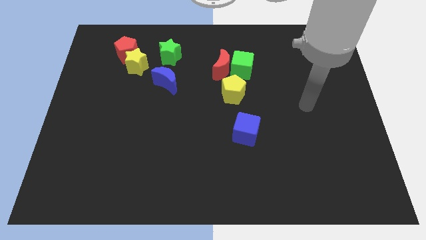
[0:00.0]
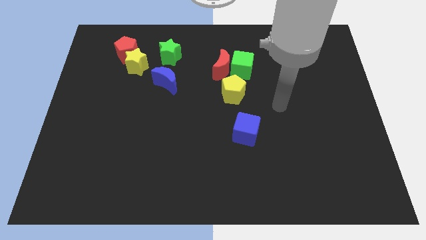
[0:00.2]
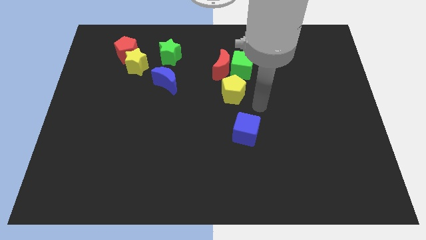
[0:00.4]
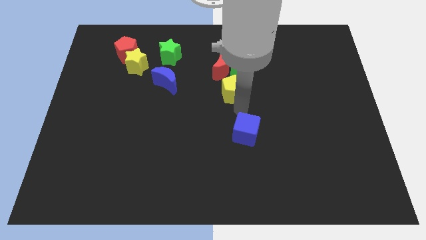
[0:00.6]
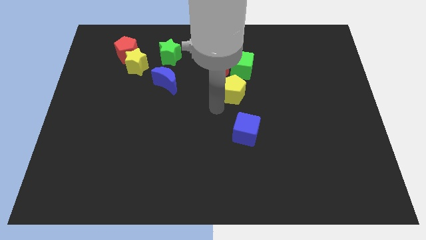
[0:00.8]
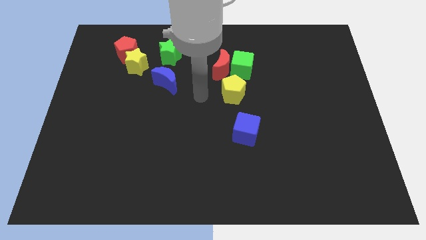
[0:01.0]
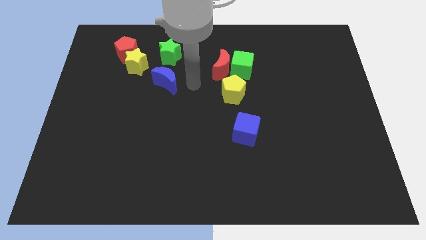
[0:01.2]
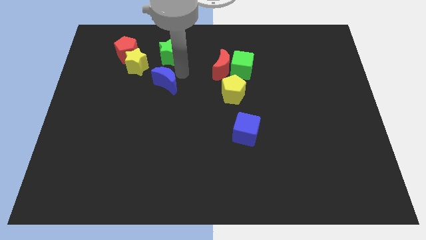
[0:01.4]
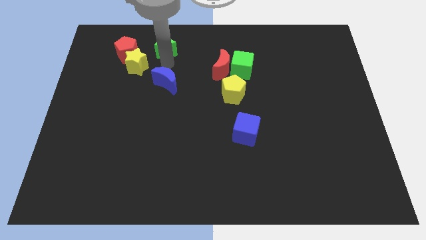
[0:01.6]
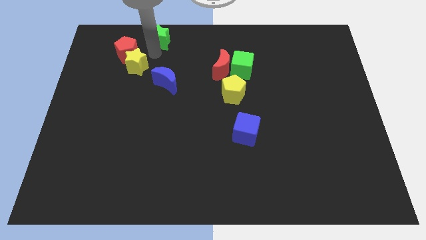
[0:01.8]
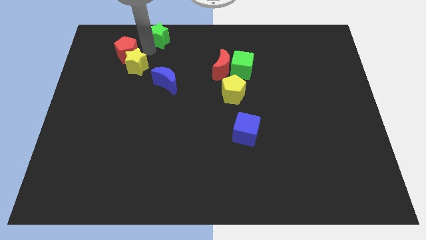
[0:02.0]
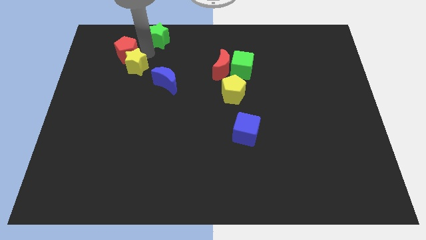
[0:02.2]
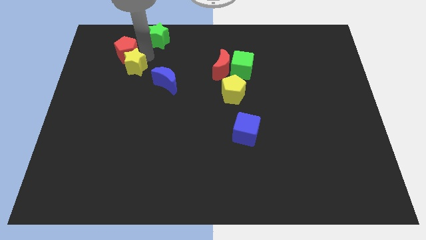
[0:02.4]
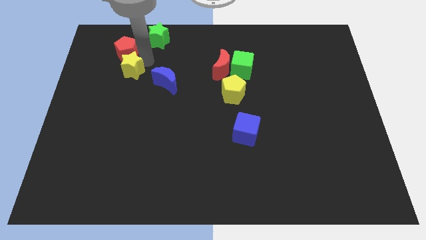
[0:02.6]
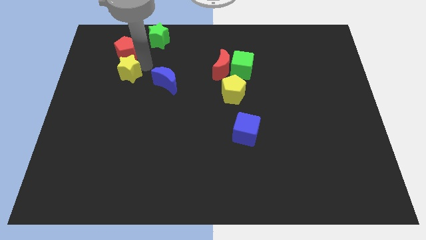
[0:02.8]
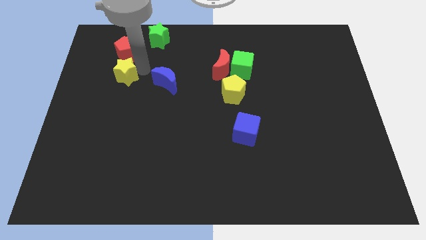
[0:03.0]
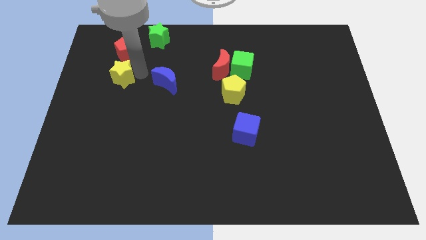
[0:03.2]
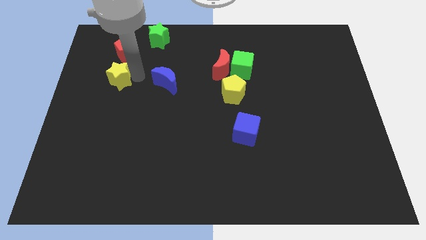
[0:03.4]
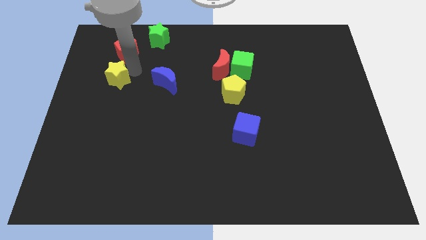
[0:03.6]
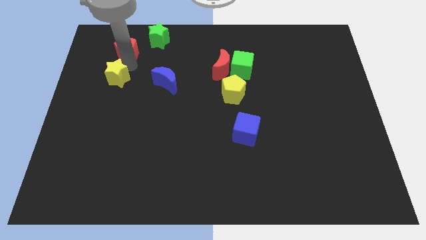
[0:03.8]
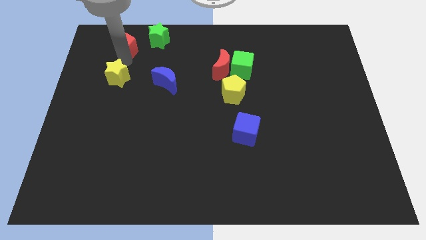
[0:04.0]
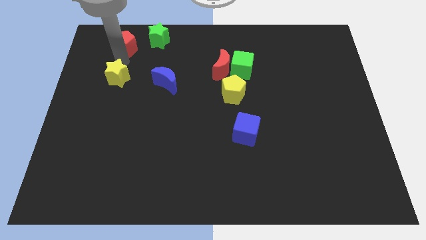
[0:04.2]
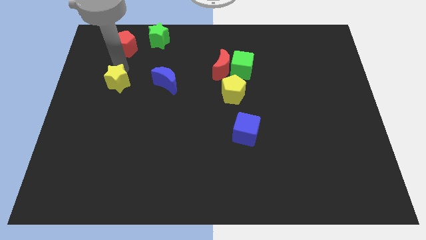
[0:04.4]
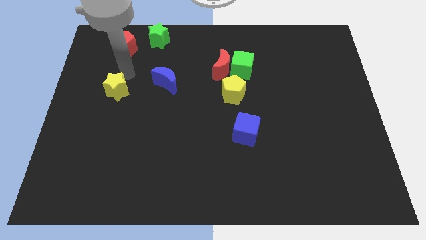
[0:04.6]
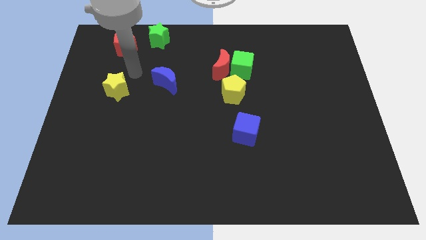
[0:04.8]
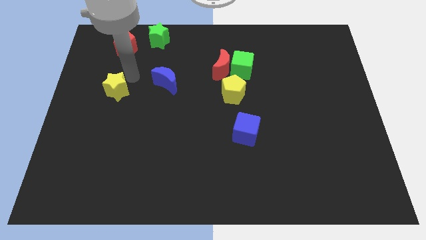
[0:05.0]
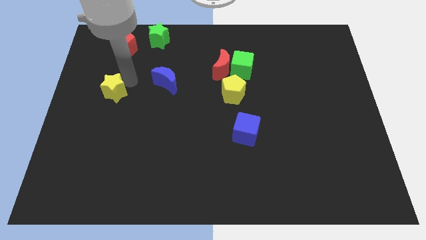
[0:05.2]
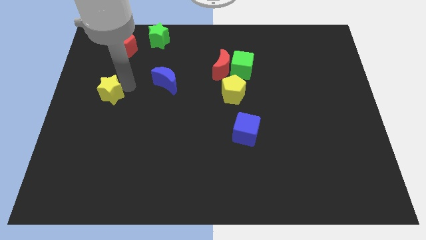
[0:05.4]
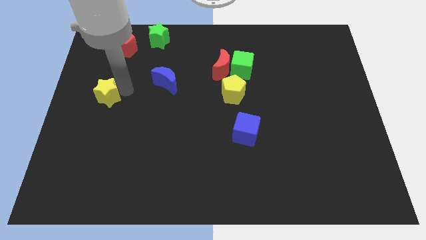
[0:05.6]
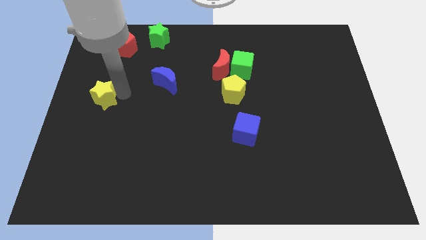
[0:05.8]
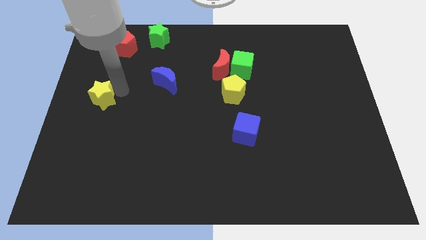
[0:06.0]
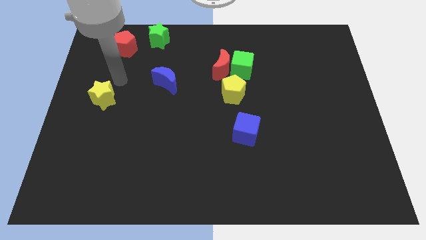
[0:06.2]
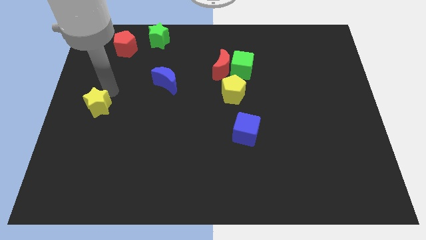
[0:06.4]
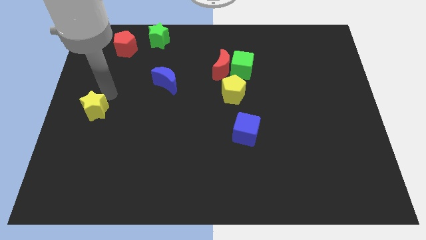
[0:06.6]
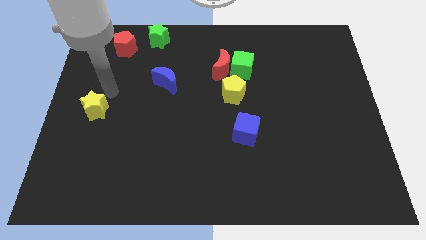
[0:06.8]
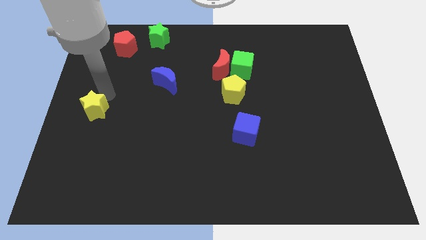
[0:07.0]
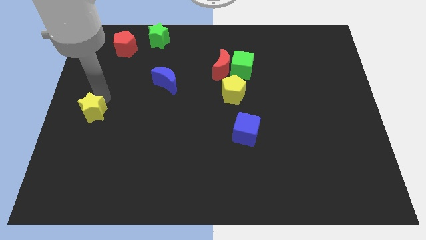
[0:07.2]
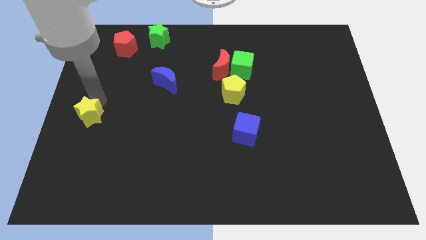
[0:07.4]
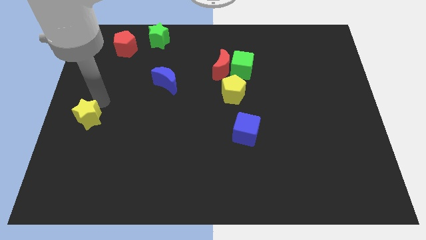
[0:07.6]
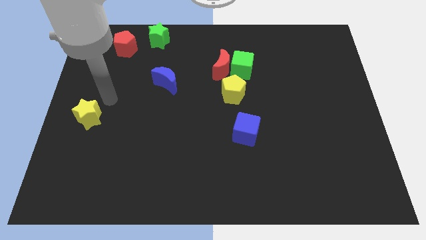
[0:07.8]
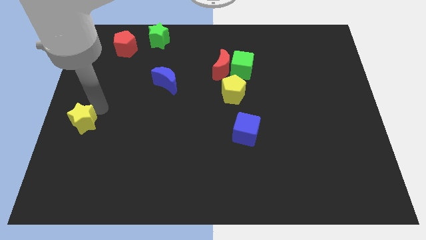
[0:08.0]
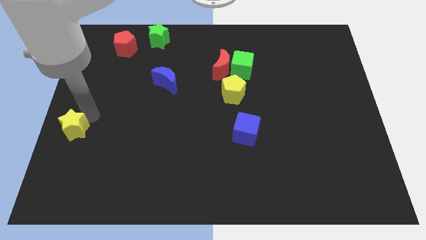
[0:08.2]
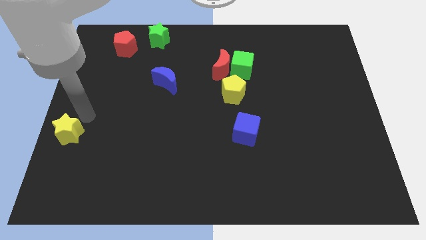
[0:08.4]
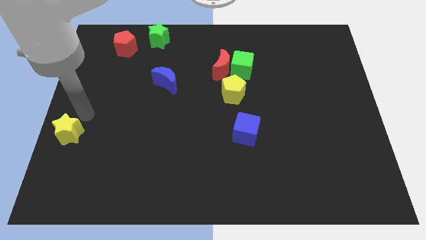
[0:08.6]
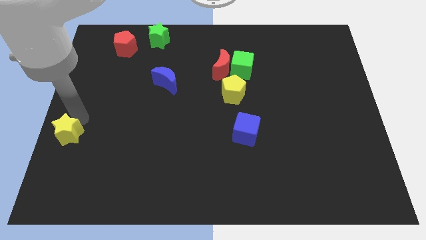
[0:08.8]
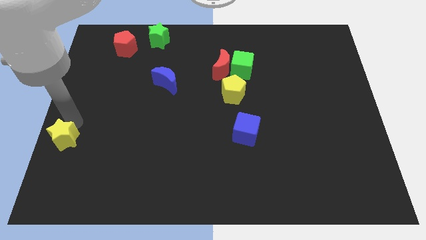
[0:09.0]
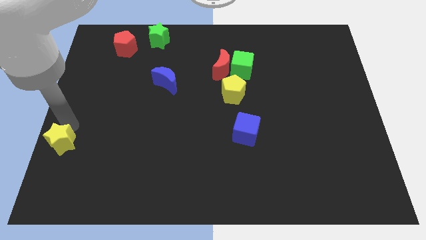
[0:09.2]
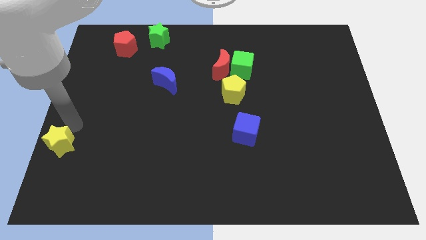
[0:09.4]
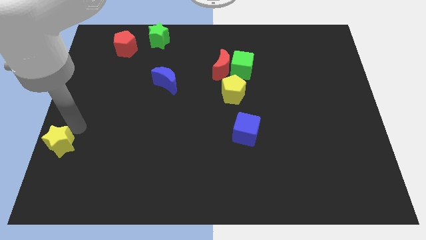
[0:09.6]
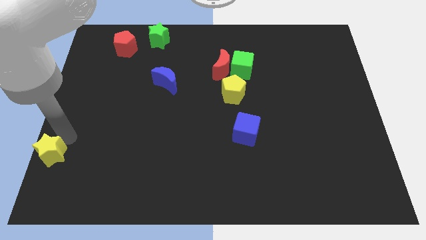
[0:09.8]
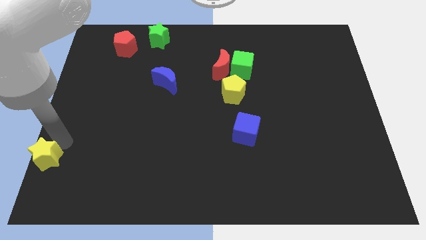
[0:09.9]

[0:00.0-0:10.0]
push the yellow star to the bottom left

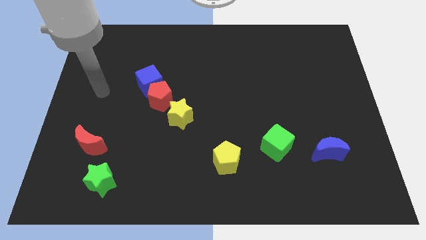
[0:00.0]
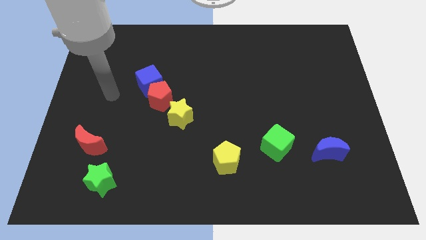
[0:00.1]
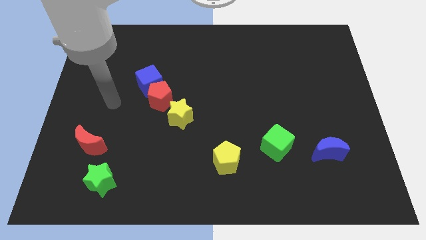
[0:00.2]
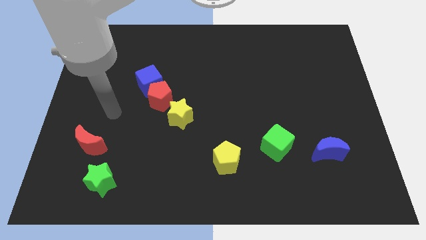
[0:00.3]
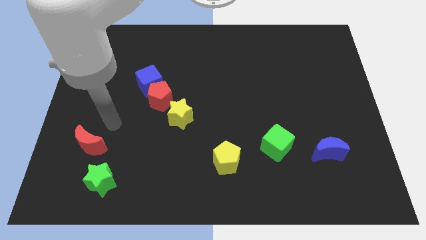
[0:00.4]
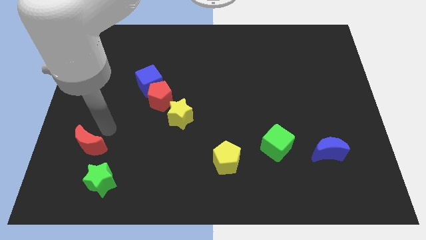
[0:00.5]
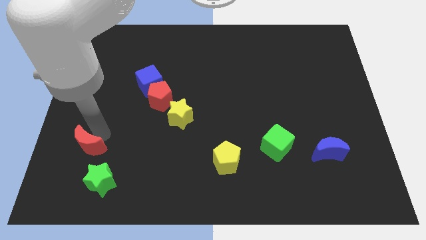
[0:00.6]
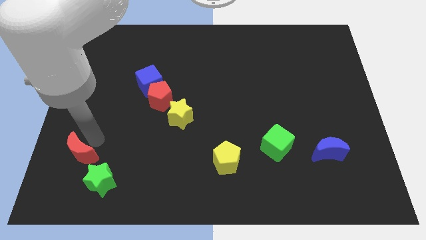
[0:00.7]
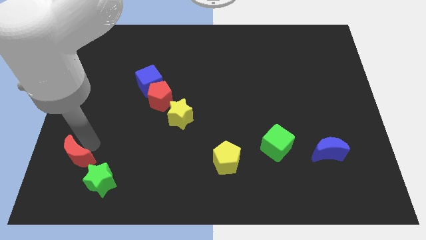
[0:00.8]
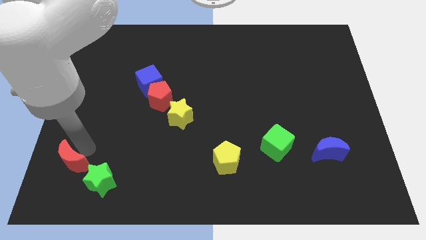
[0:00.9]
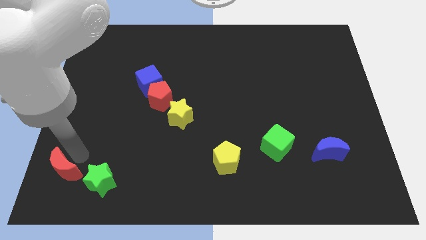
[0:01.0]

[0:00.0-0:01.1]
move the red moon to the bottom left of the board

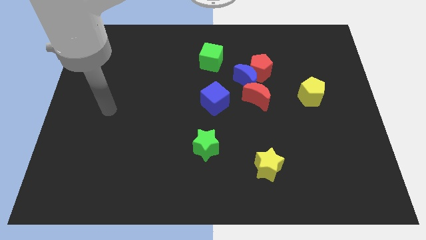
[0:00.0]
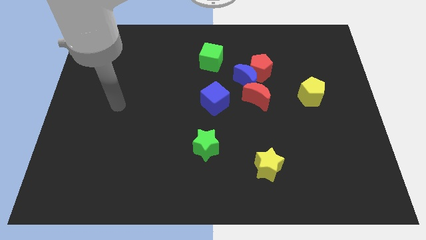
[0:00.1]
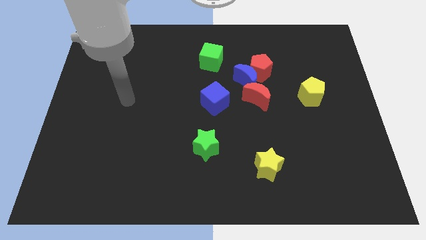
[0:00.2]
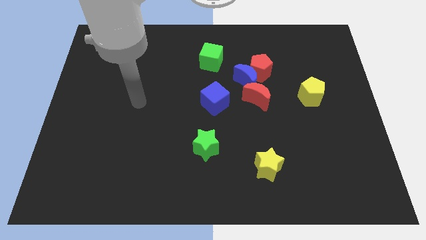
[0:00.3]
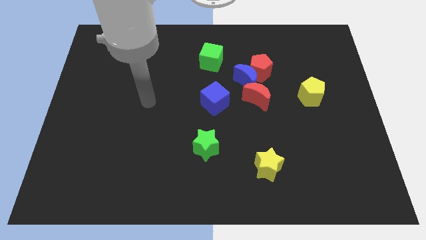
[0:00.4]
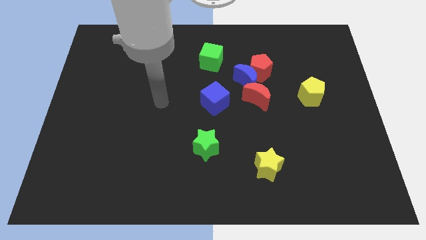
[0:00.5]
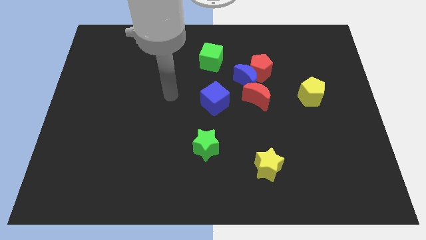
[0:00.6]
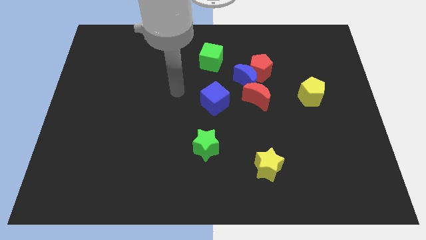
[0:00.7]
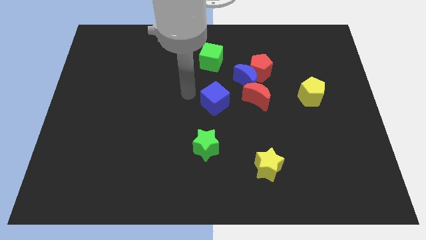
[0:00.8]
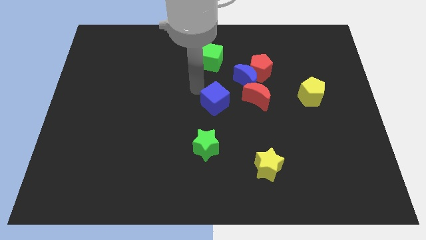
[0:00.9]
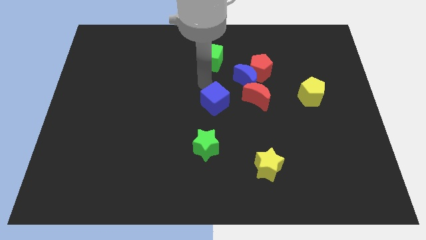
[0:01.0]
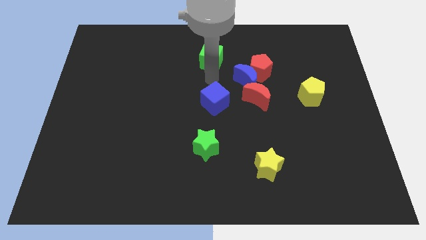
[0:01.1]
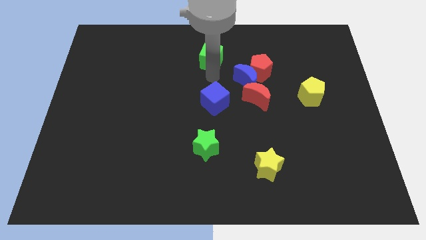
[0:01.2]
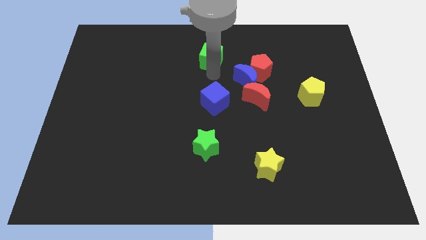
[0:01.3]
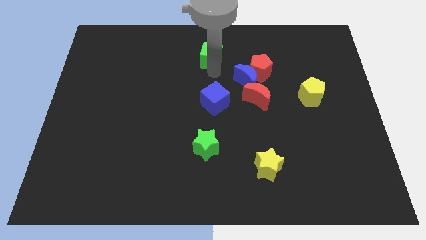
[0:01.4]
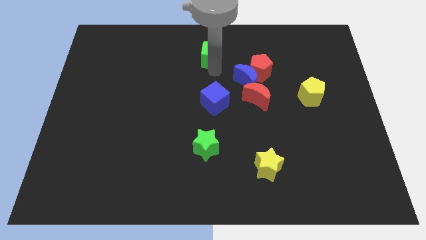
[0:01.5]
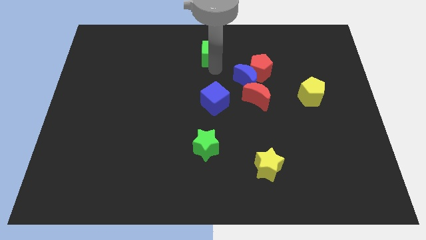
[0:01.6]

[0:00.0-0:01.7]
move the green cube to the top side
